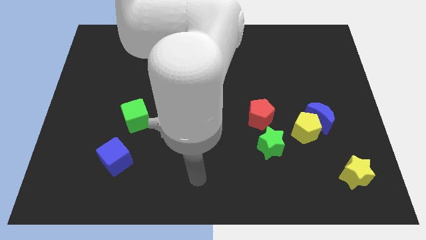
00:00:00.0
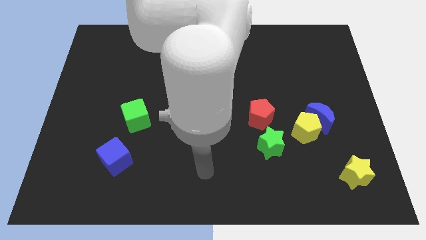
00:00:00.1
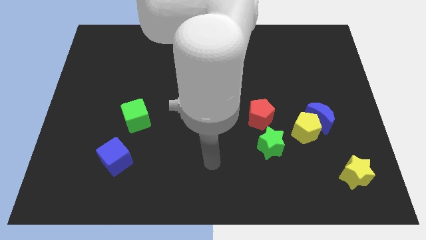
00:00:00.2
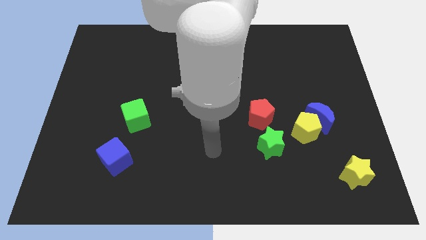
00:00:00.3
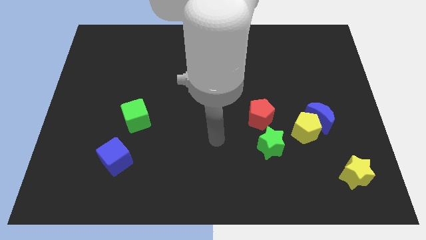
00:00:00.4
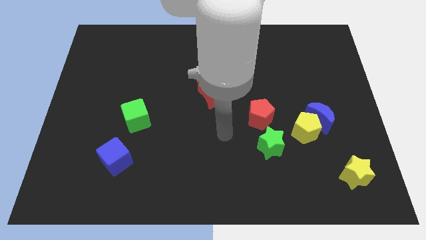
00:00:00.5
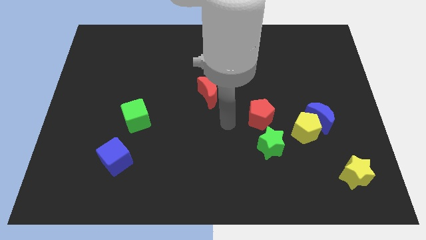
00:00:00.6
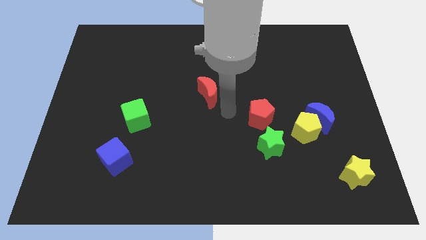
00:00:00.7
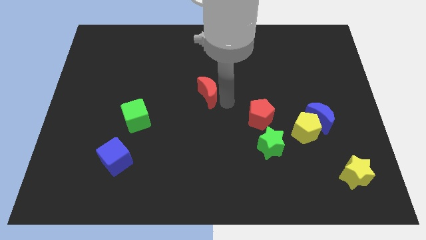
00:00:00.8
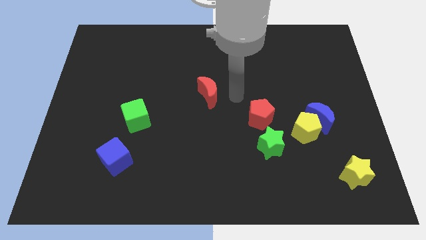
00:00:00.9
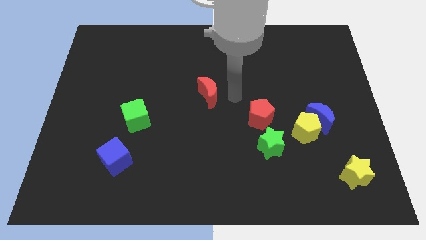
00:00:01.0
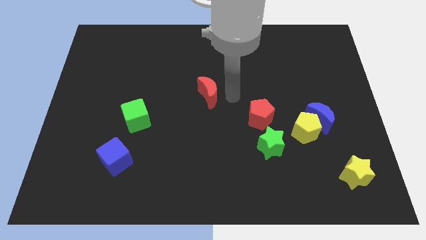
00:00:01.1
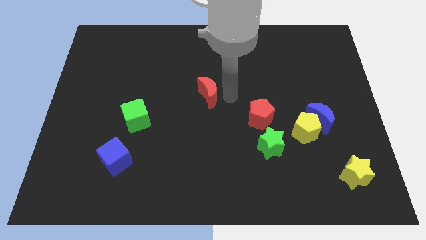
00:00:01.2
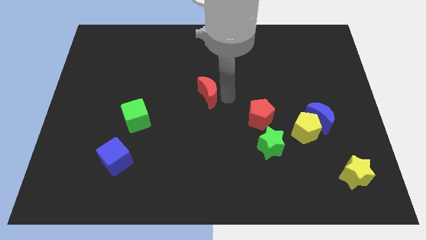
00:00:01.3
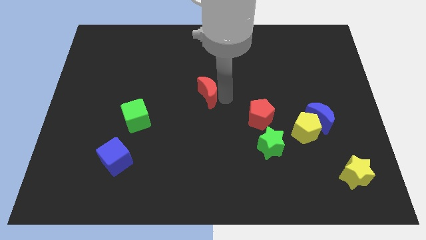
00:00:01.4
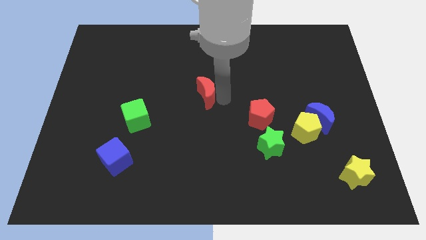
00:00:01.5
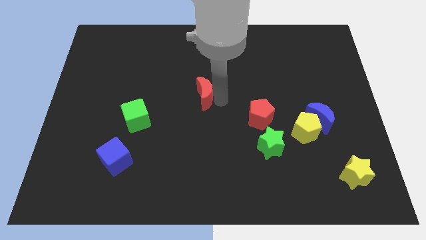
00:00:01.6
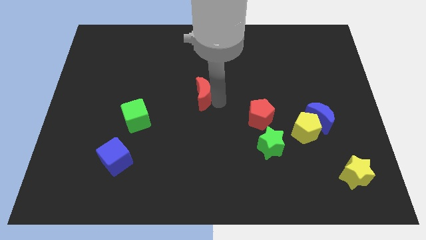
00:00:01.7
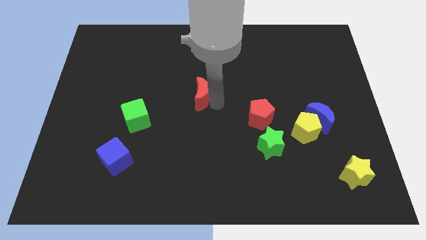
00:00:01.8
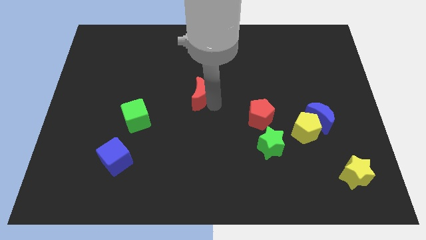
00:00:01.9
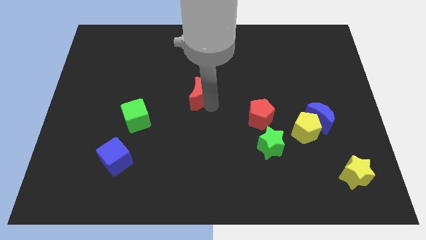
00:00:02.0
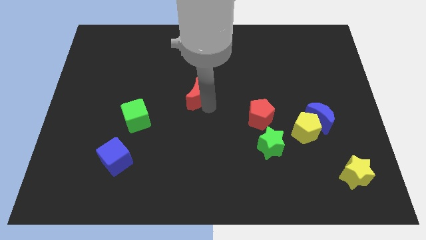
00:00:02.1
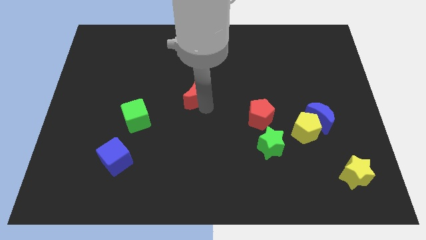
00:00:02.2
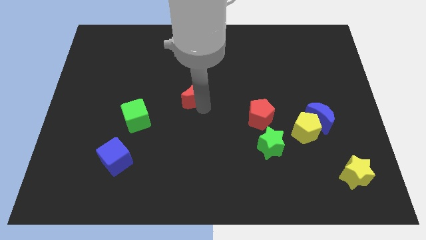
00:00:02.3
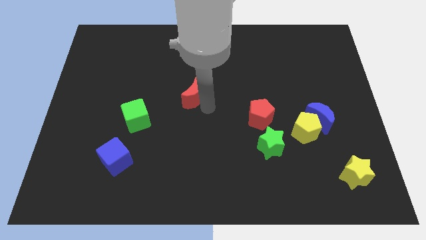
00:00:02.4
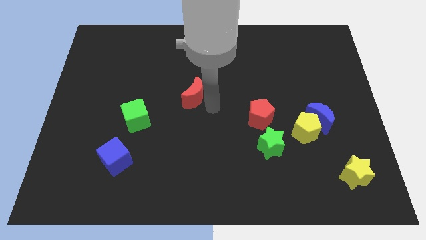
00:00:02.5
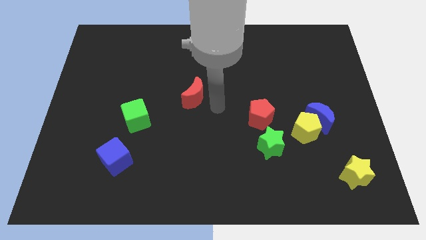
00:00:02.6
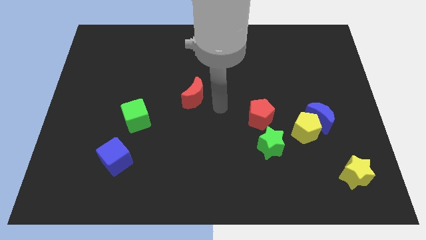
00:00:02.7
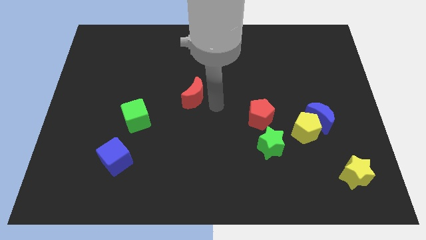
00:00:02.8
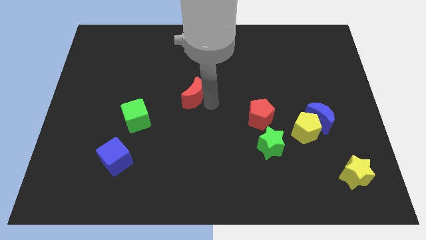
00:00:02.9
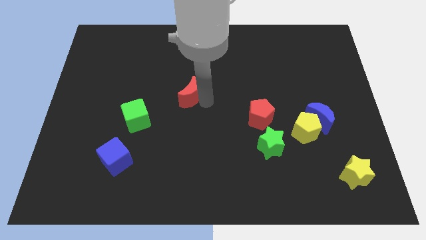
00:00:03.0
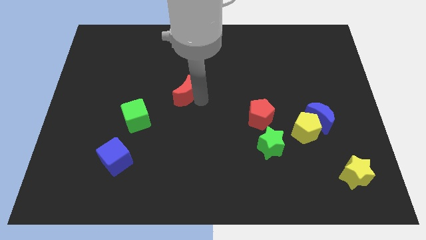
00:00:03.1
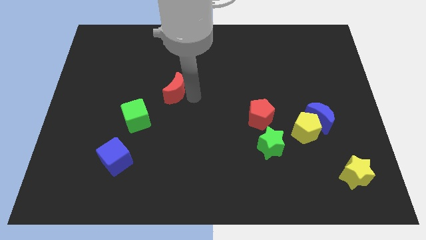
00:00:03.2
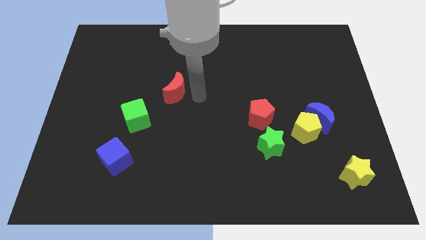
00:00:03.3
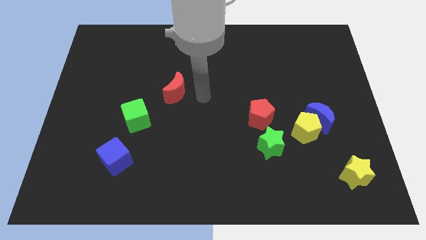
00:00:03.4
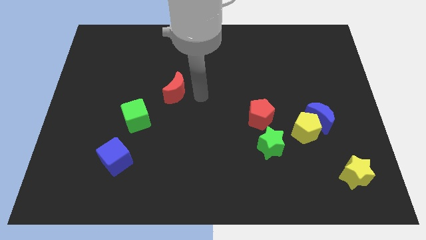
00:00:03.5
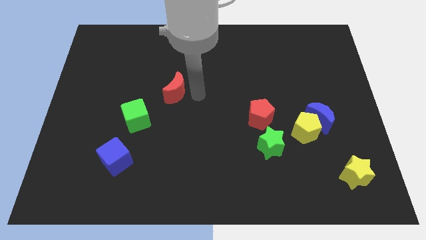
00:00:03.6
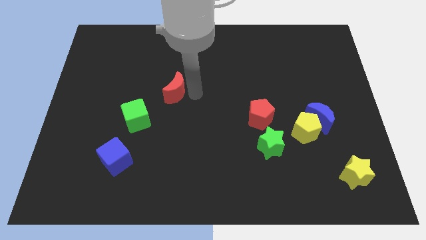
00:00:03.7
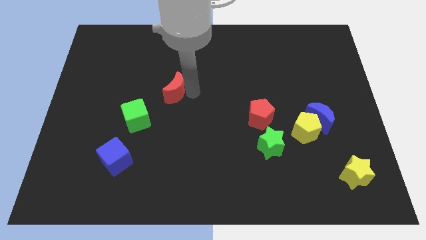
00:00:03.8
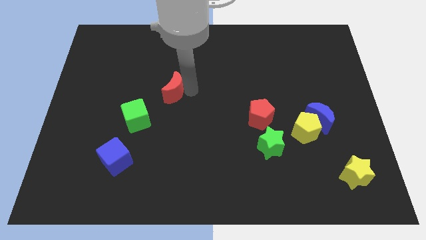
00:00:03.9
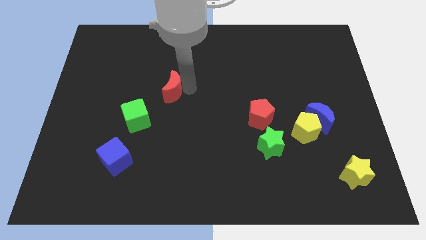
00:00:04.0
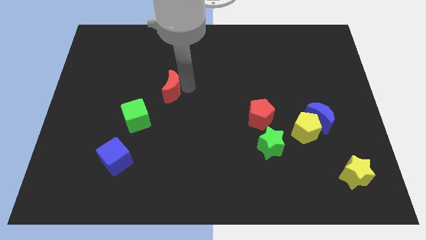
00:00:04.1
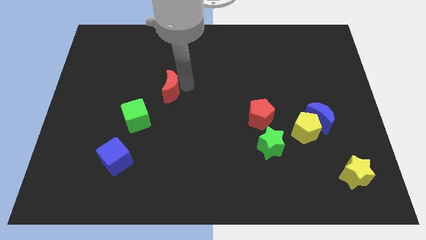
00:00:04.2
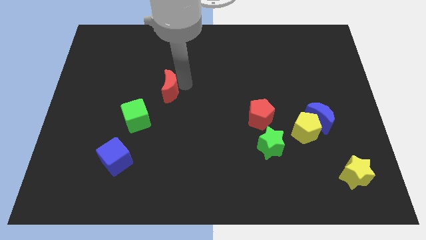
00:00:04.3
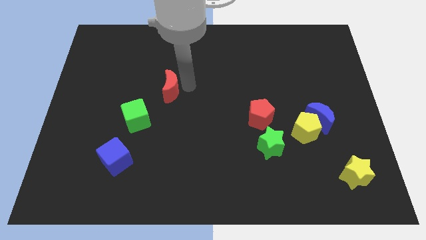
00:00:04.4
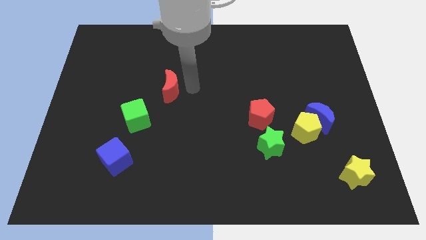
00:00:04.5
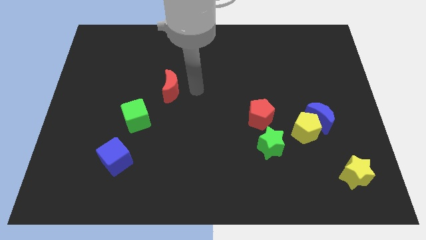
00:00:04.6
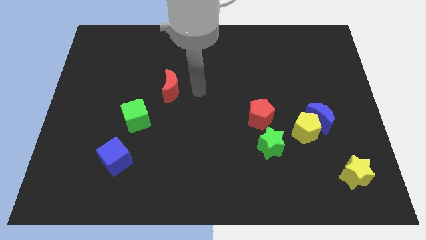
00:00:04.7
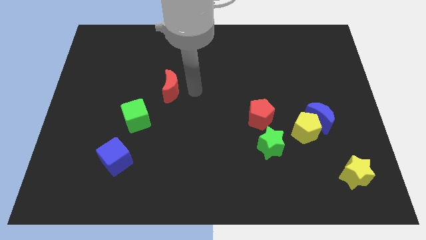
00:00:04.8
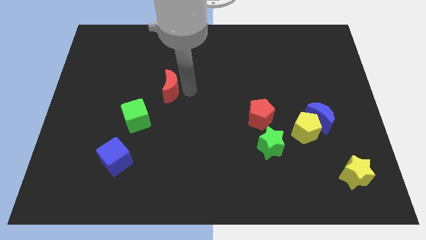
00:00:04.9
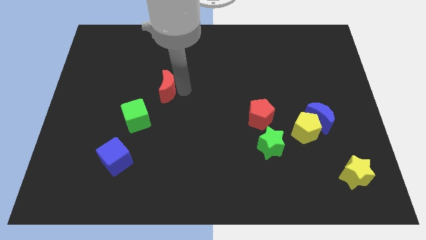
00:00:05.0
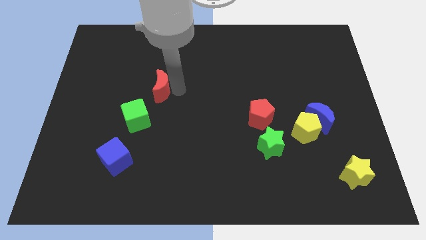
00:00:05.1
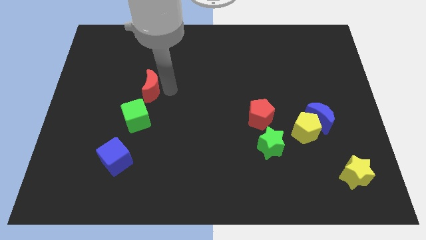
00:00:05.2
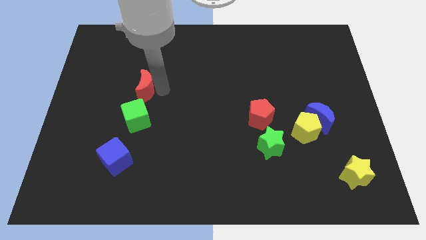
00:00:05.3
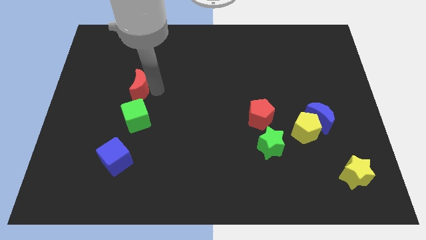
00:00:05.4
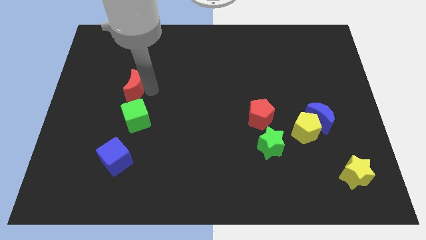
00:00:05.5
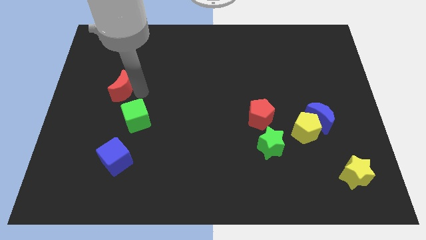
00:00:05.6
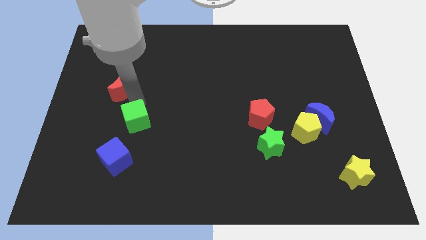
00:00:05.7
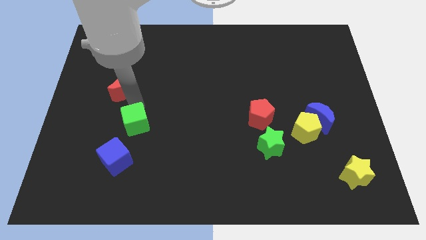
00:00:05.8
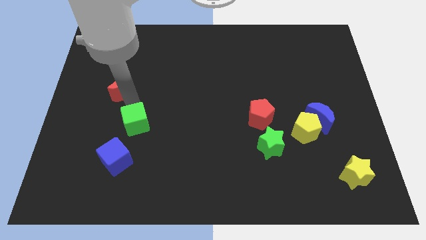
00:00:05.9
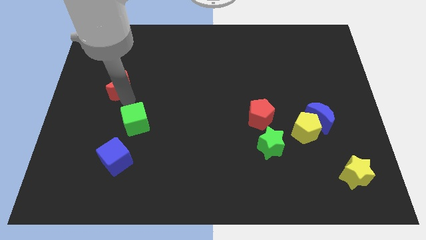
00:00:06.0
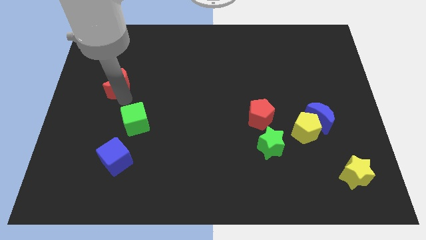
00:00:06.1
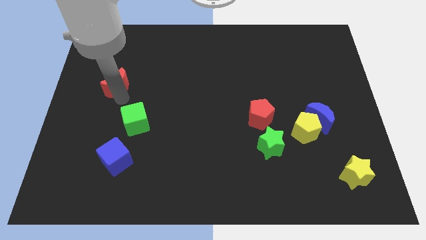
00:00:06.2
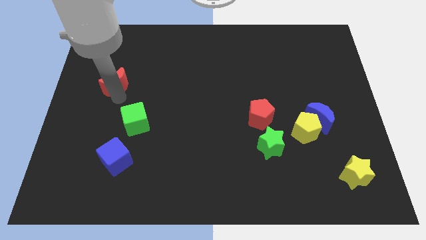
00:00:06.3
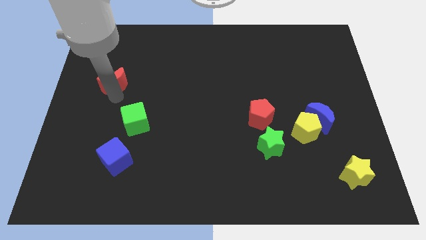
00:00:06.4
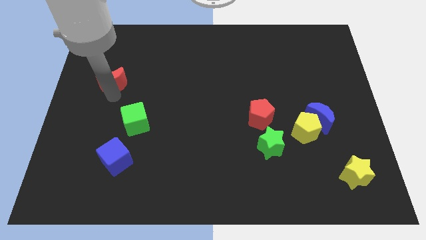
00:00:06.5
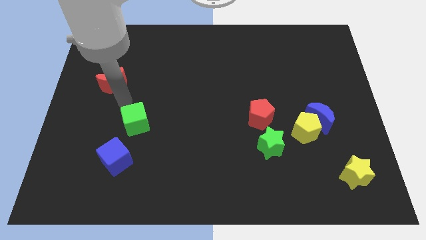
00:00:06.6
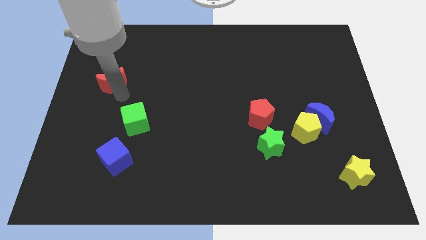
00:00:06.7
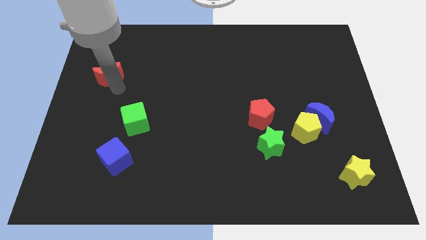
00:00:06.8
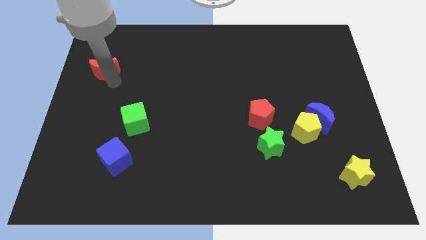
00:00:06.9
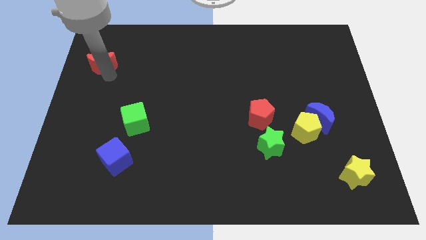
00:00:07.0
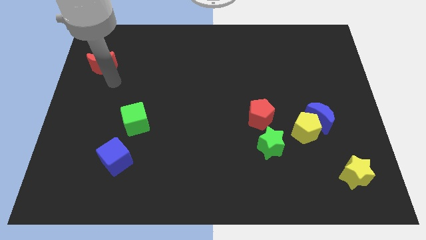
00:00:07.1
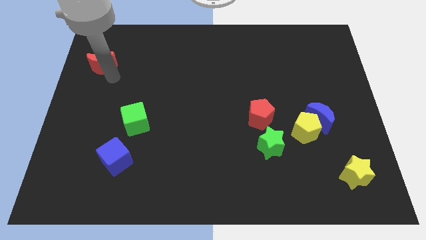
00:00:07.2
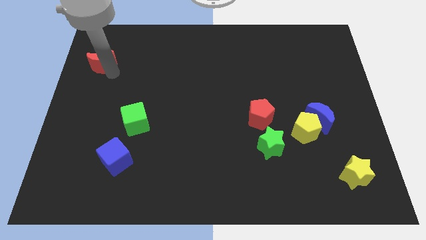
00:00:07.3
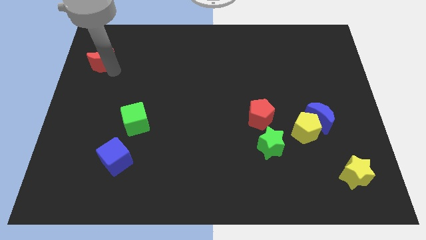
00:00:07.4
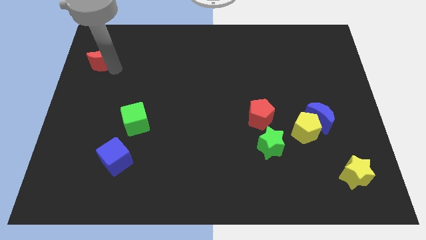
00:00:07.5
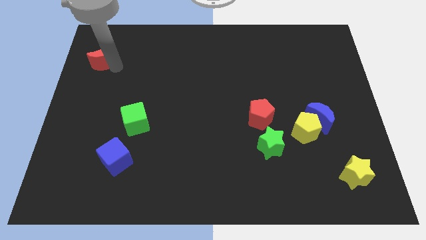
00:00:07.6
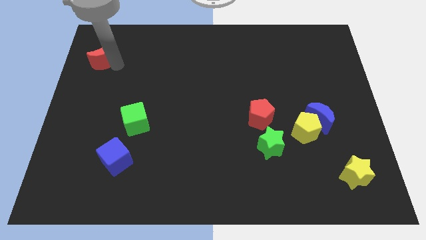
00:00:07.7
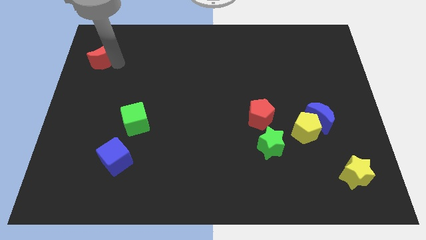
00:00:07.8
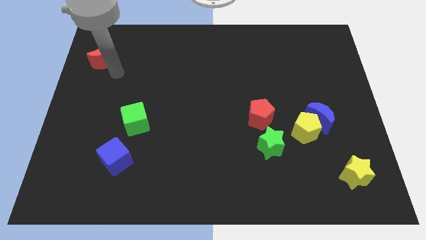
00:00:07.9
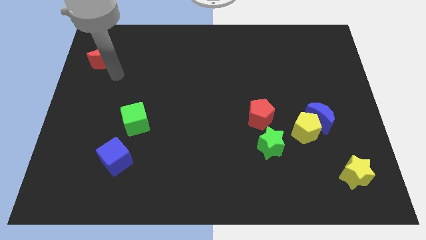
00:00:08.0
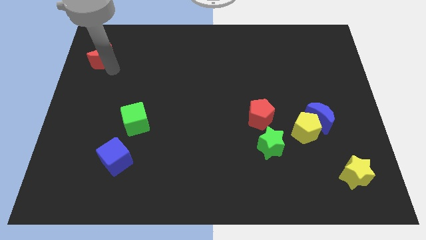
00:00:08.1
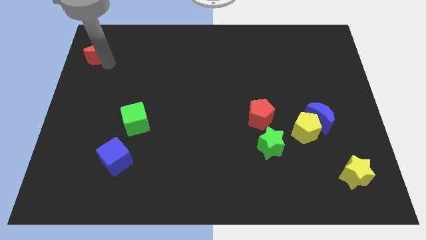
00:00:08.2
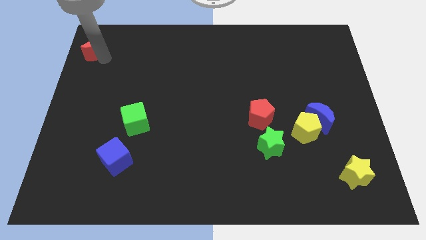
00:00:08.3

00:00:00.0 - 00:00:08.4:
put the red moon to the top left corner
